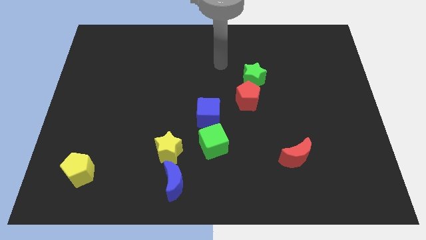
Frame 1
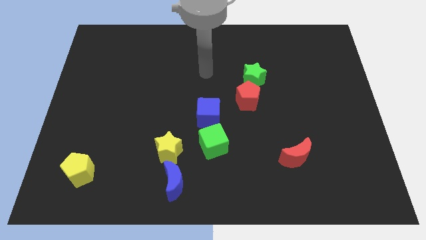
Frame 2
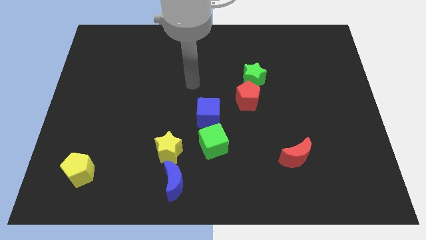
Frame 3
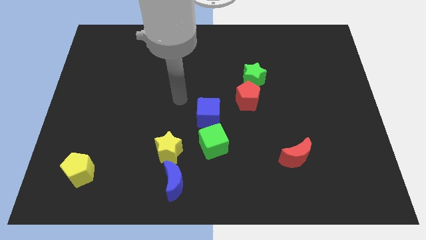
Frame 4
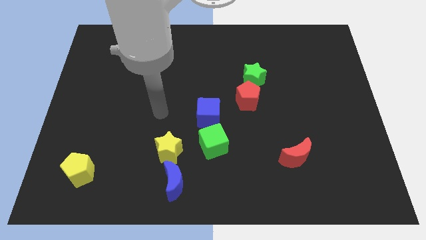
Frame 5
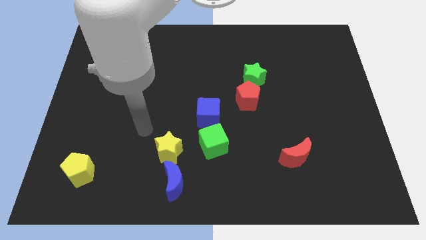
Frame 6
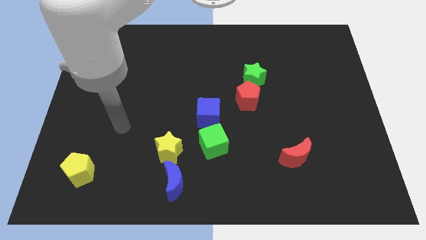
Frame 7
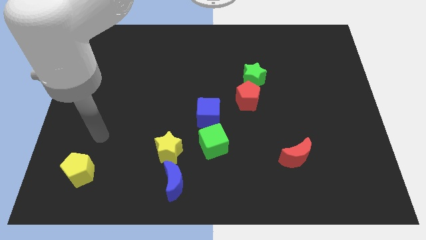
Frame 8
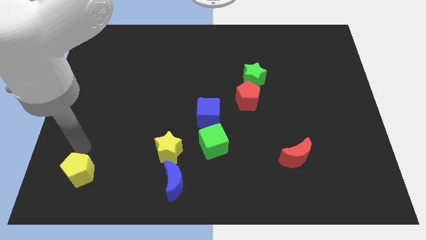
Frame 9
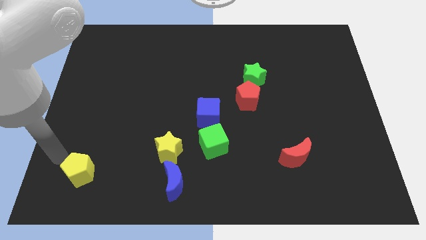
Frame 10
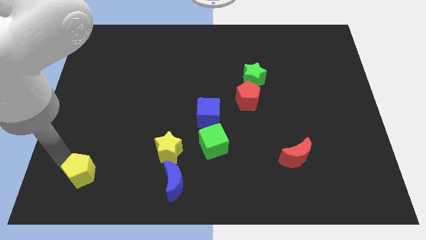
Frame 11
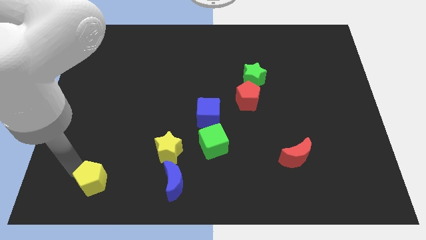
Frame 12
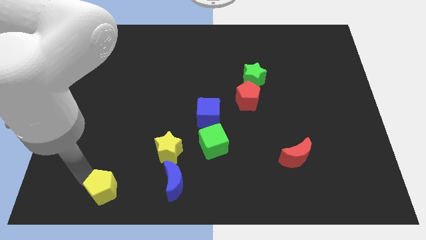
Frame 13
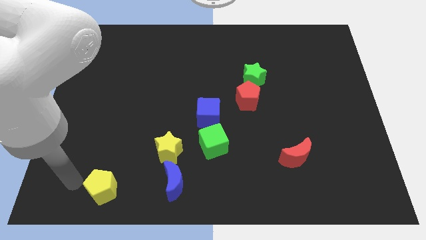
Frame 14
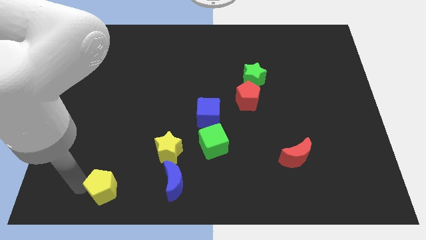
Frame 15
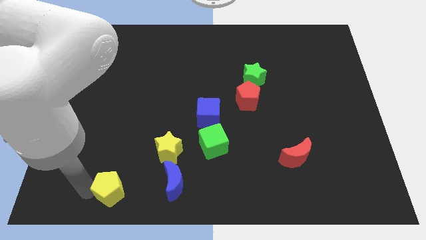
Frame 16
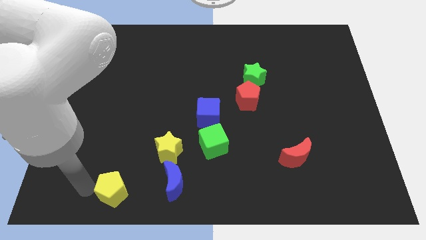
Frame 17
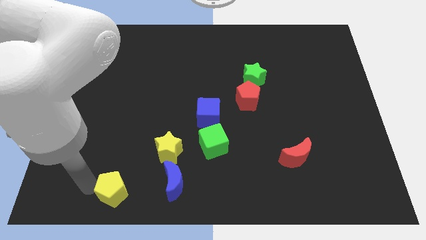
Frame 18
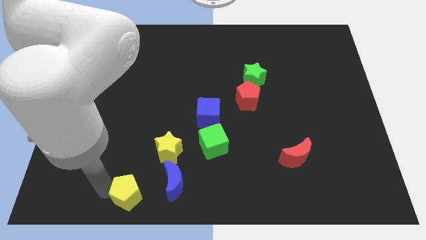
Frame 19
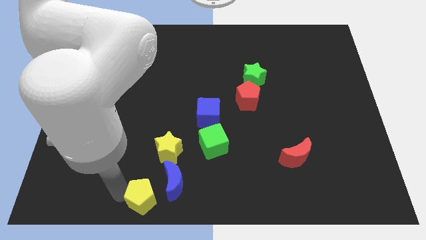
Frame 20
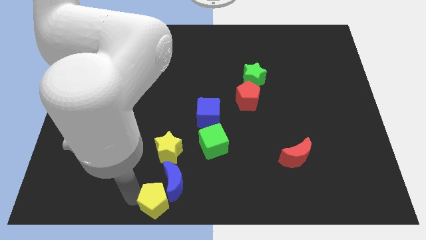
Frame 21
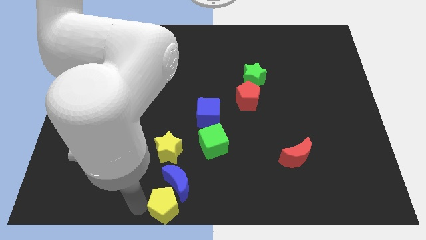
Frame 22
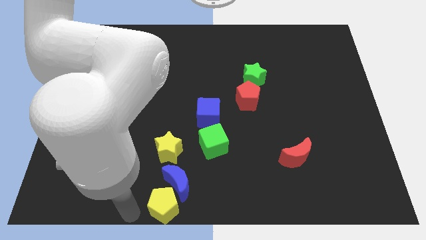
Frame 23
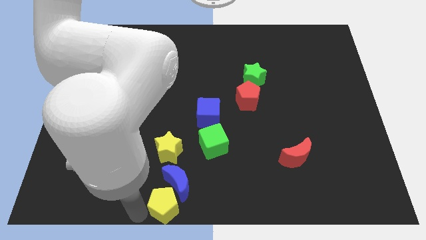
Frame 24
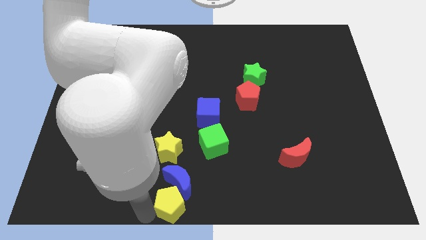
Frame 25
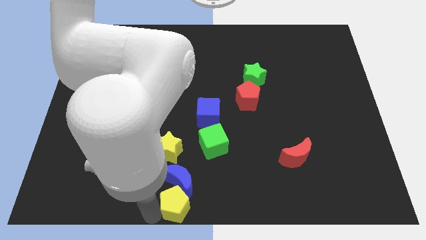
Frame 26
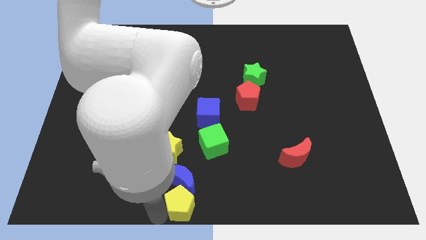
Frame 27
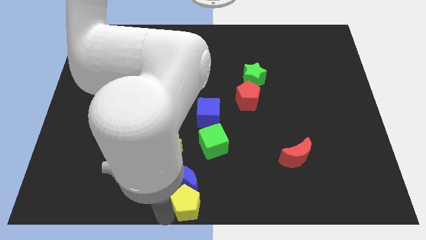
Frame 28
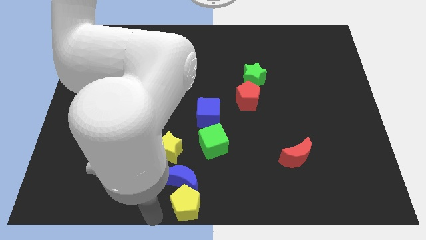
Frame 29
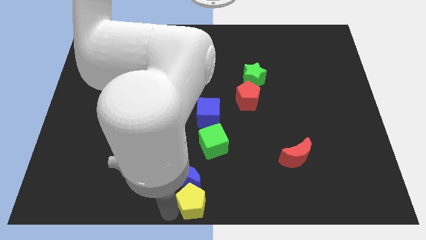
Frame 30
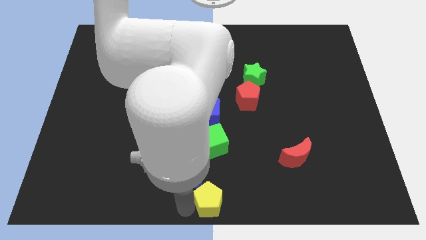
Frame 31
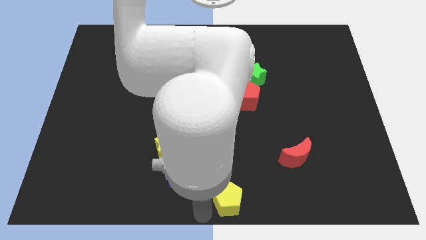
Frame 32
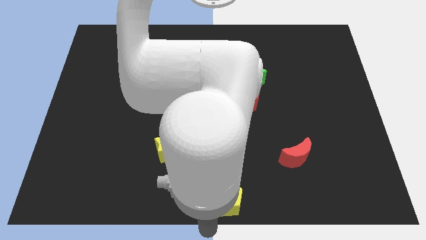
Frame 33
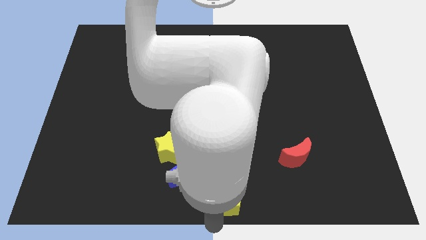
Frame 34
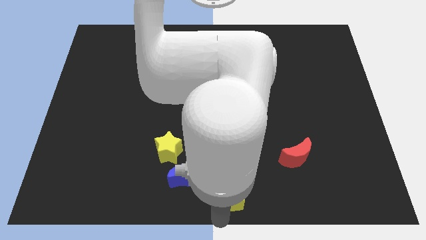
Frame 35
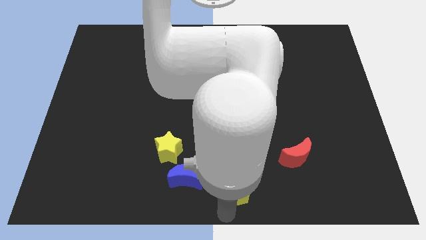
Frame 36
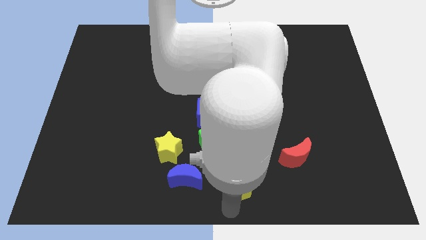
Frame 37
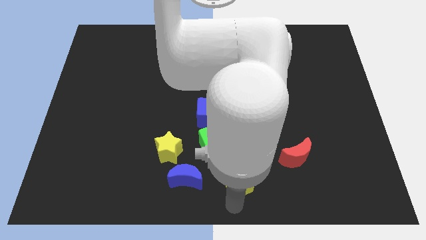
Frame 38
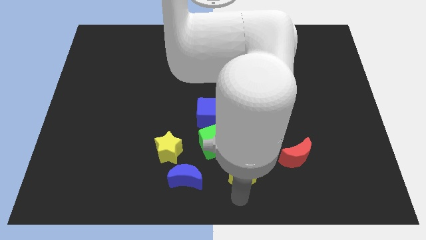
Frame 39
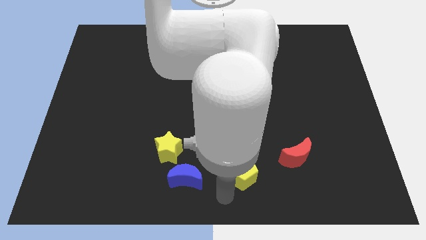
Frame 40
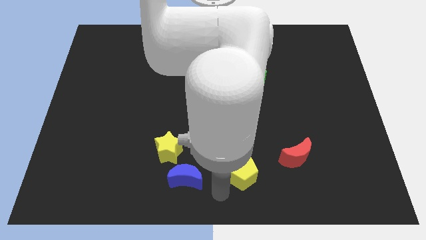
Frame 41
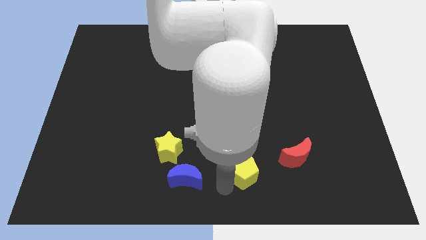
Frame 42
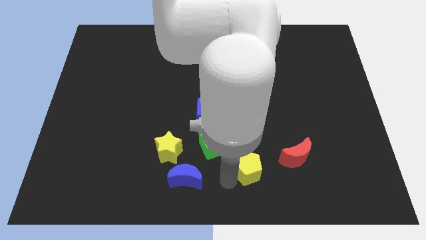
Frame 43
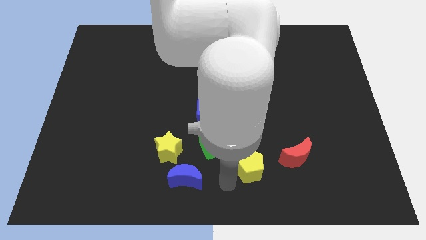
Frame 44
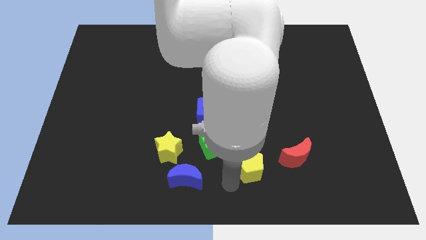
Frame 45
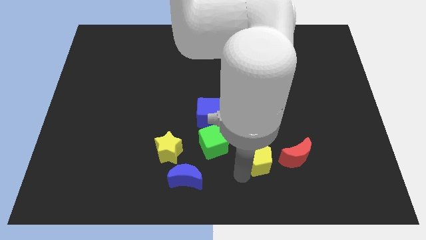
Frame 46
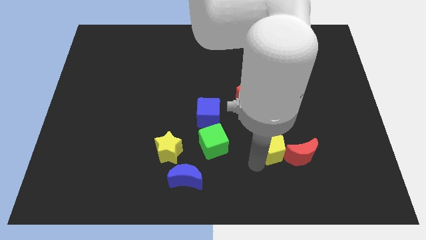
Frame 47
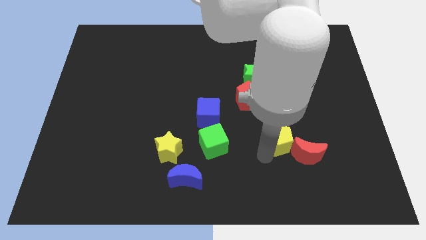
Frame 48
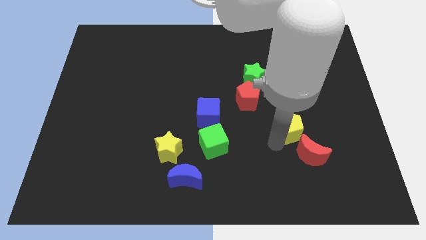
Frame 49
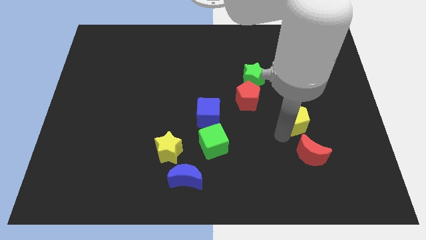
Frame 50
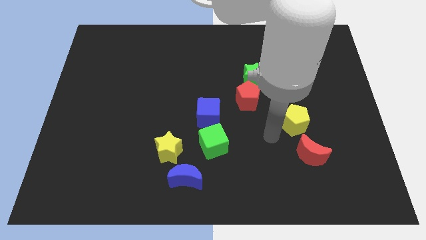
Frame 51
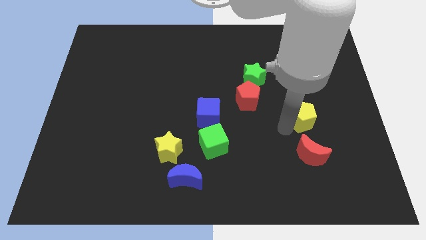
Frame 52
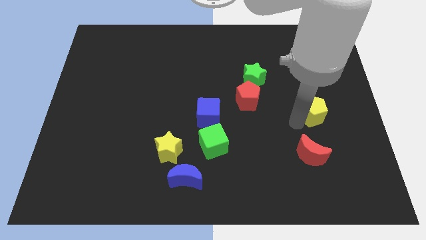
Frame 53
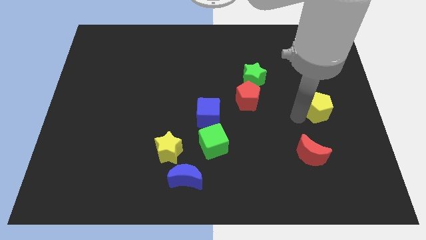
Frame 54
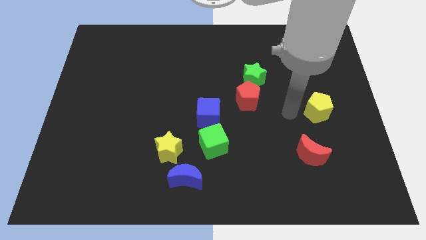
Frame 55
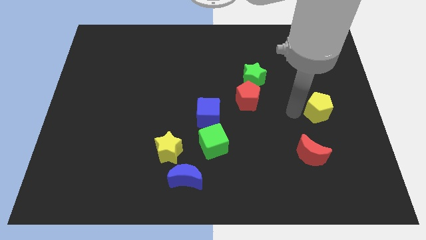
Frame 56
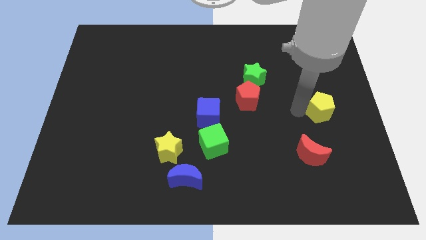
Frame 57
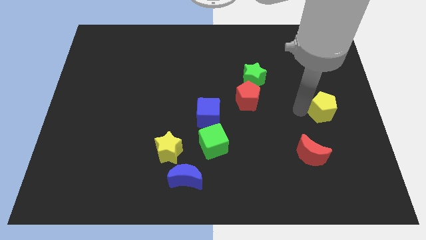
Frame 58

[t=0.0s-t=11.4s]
slide the yellow pentagon to the center right
